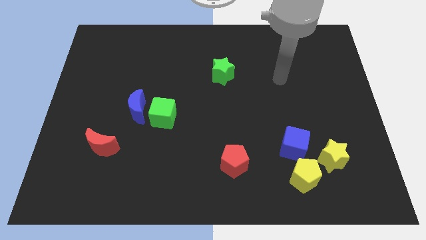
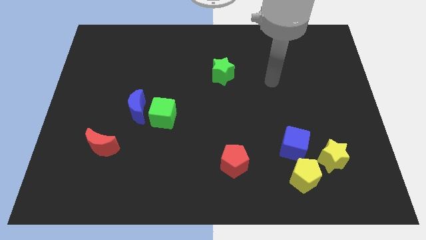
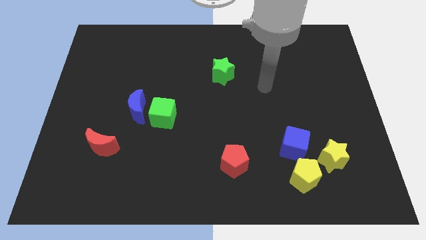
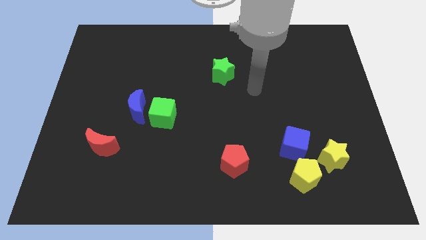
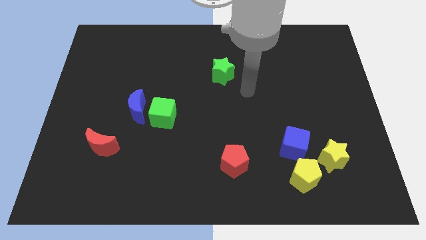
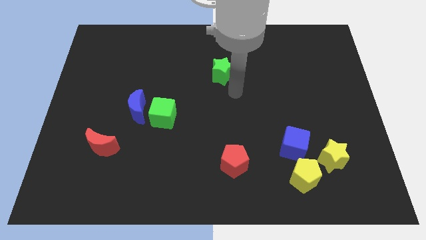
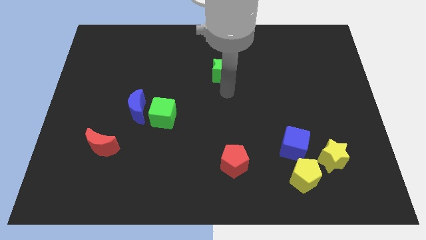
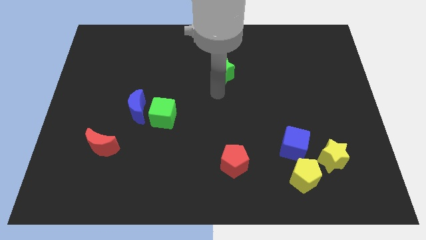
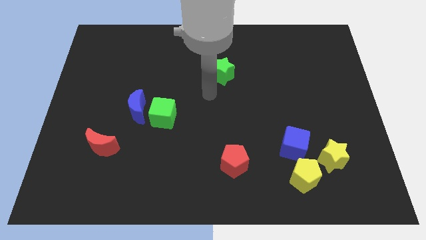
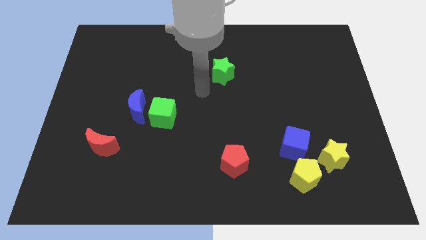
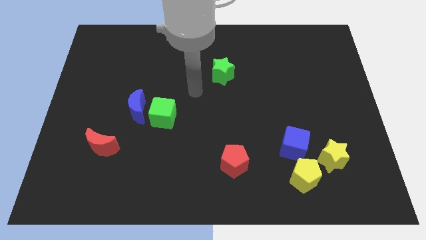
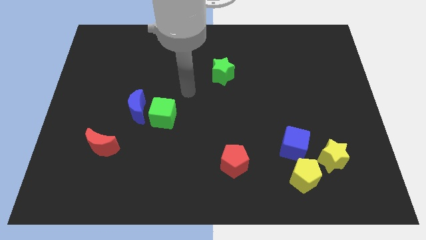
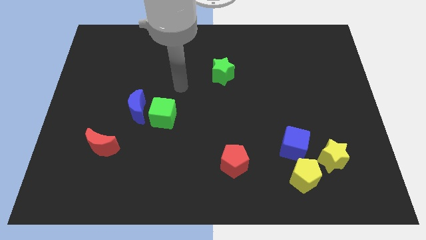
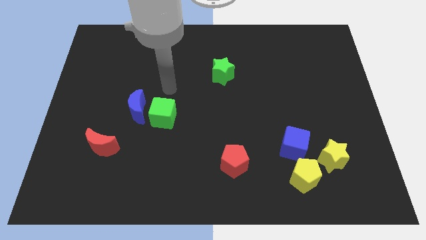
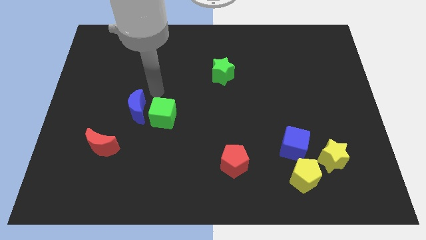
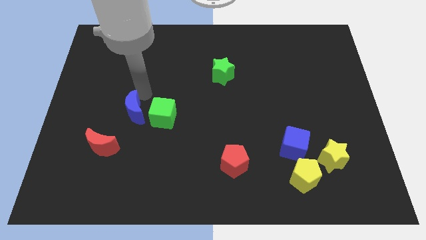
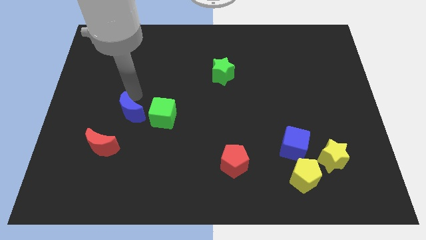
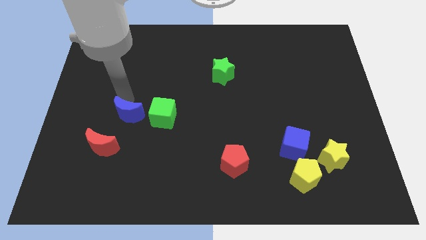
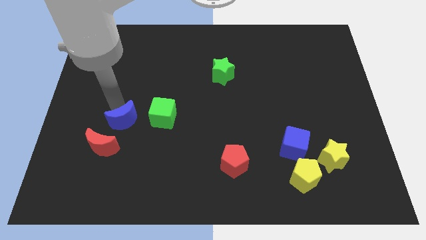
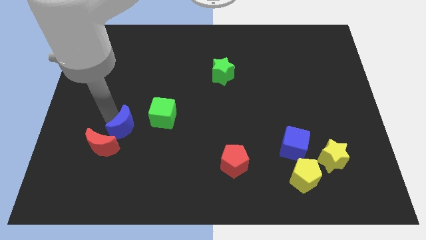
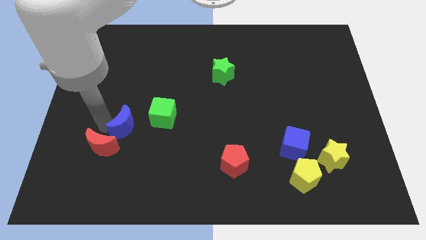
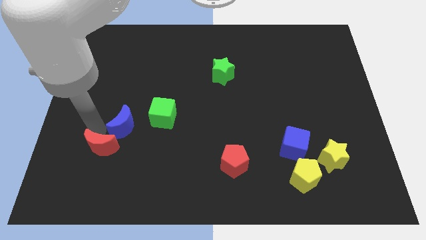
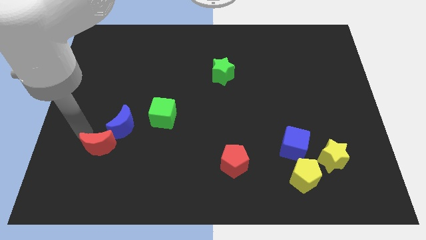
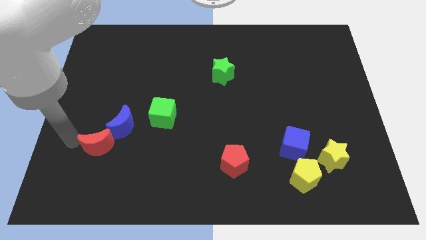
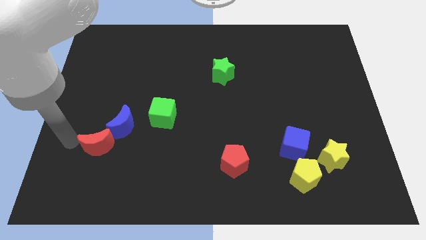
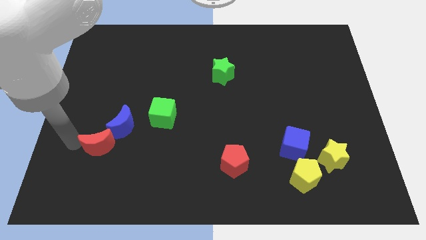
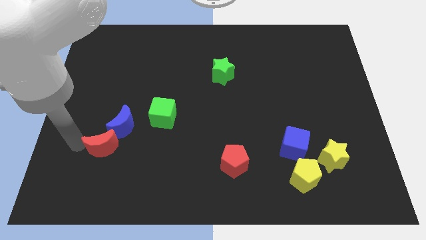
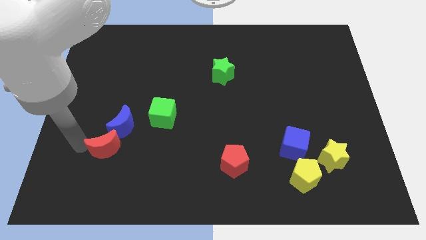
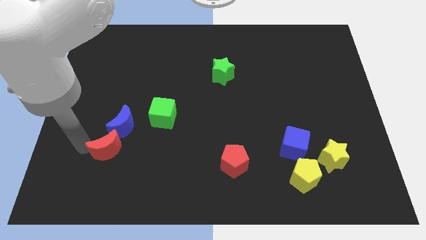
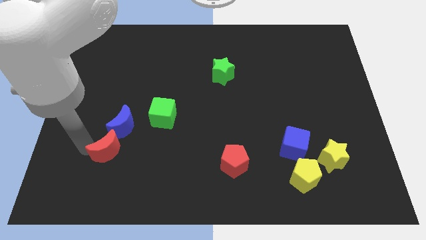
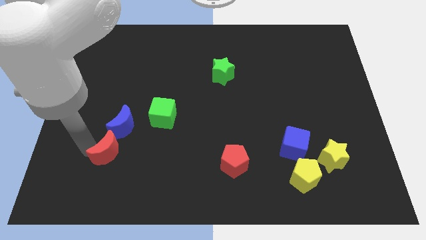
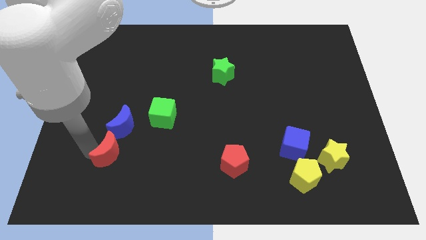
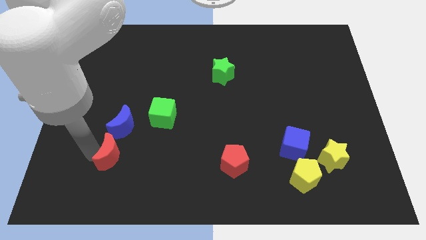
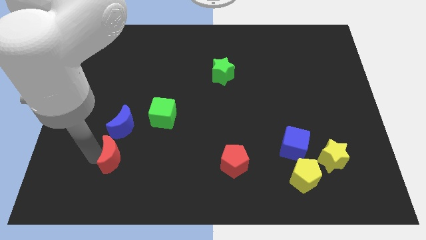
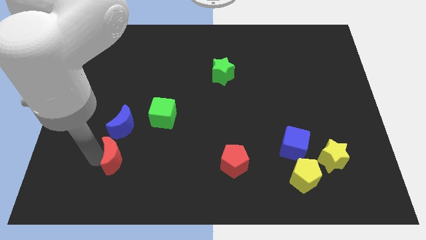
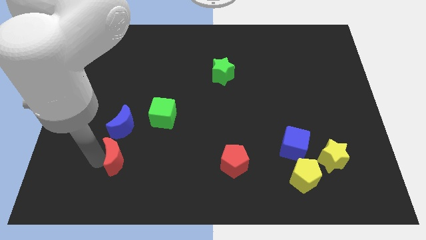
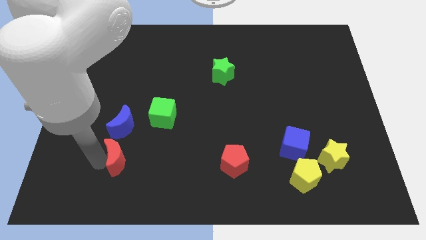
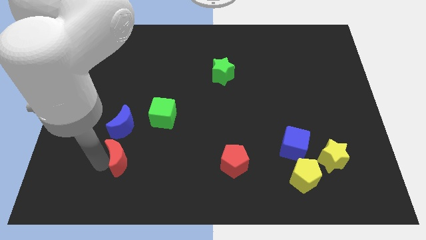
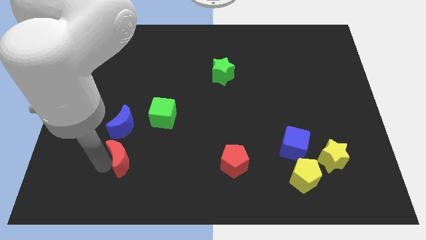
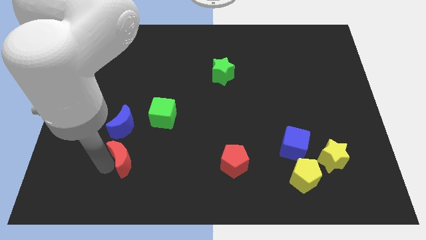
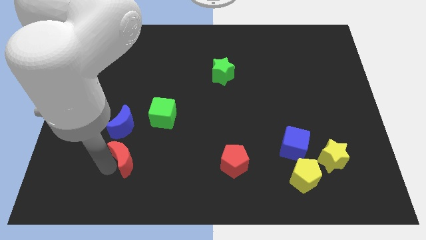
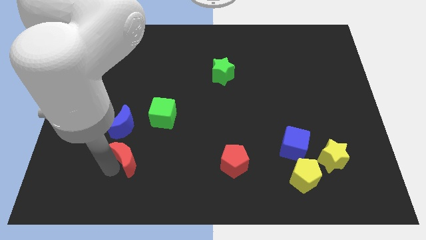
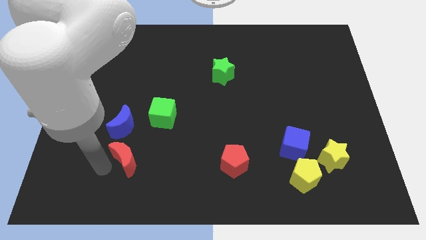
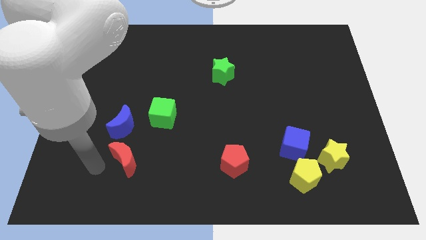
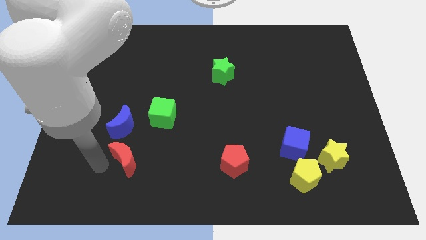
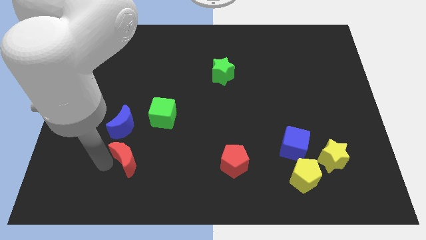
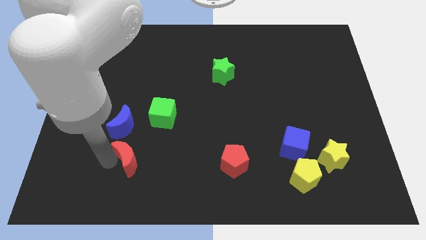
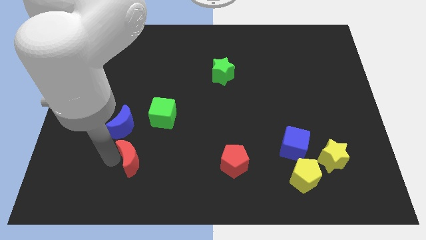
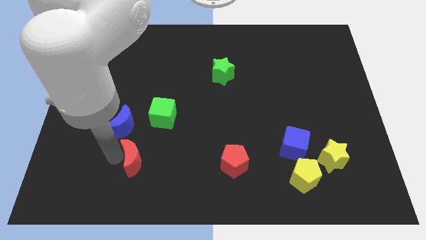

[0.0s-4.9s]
slightly slide the red moon right

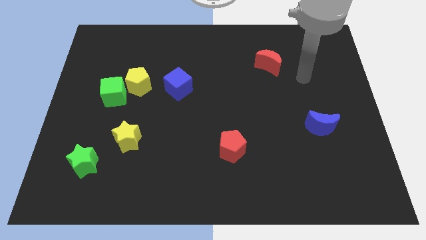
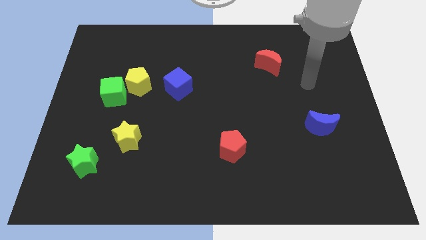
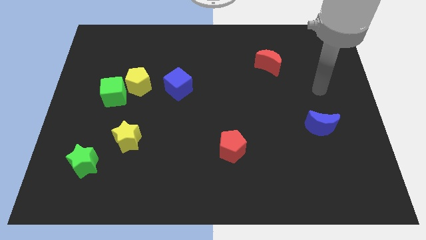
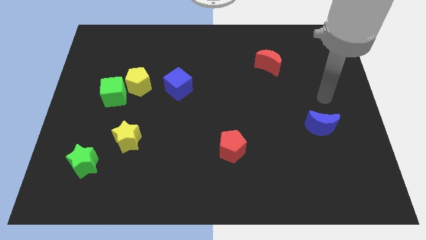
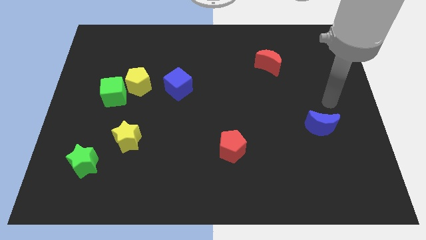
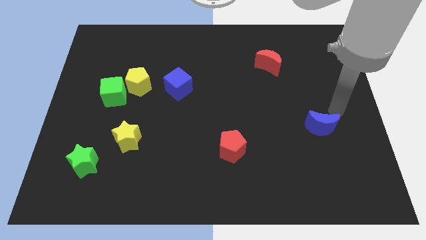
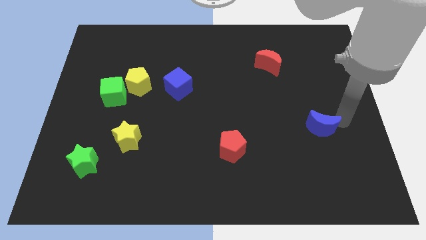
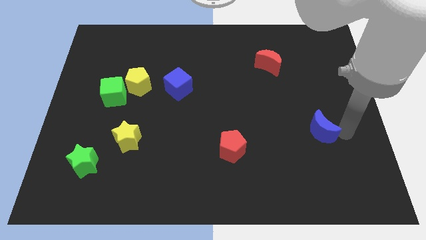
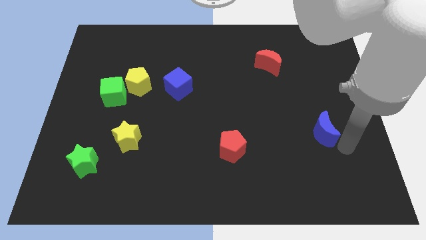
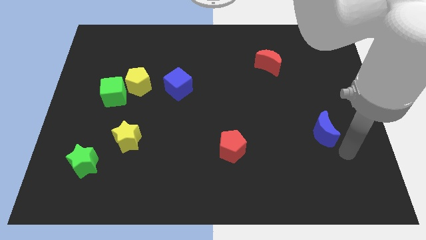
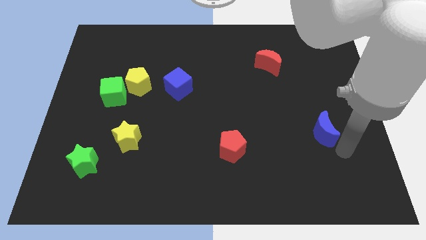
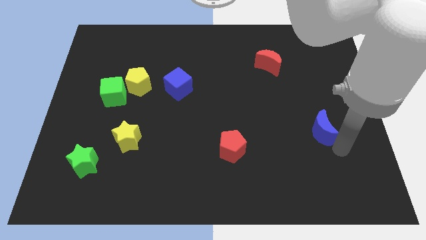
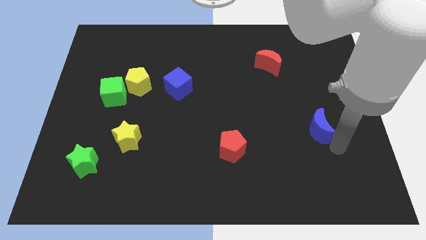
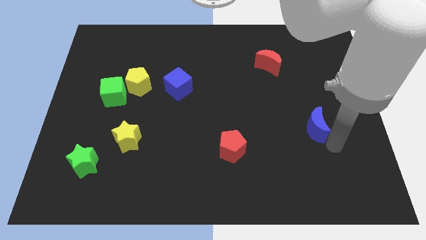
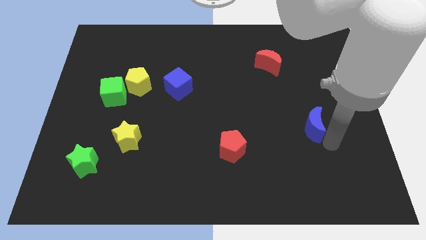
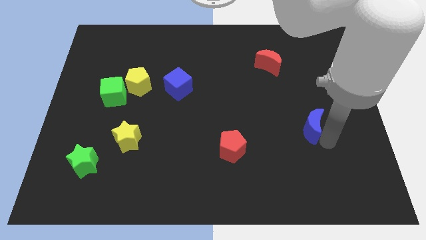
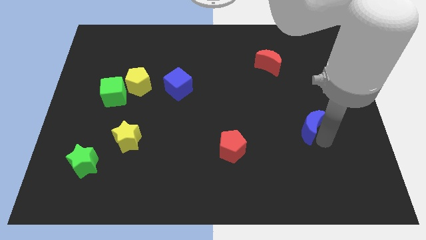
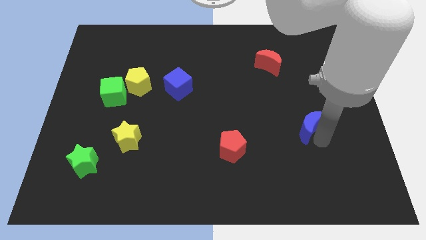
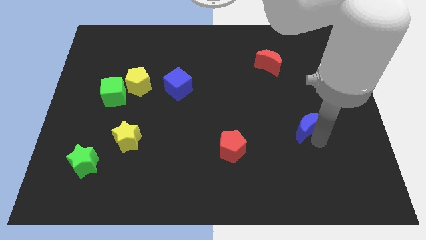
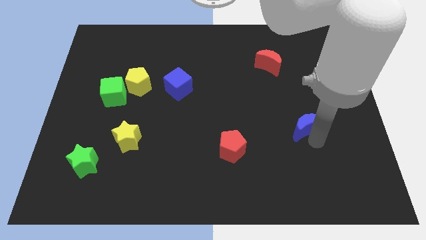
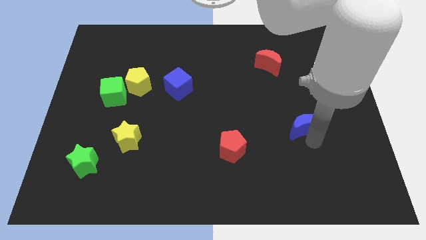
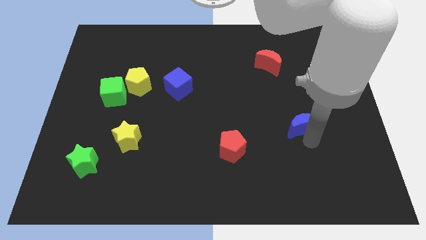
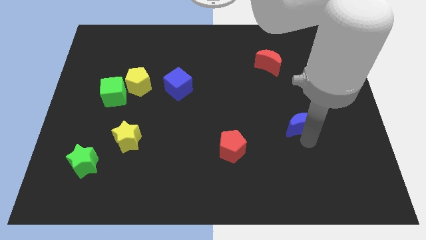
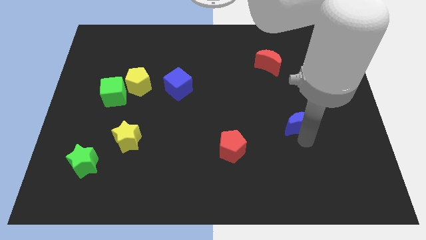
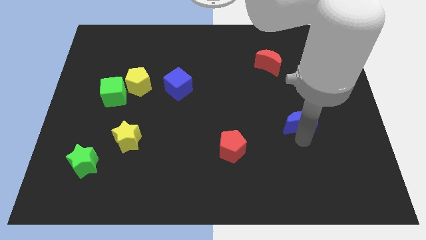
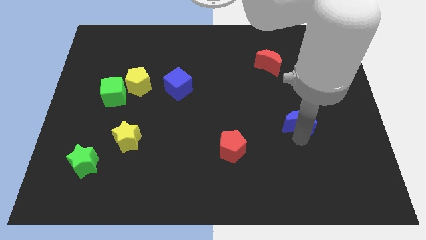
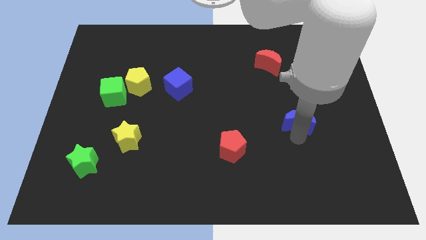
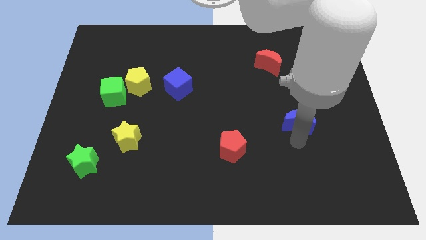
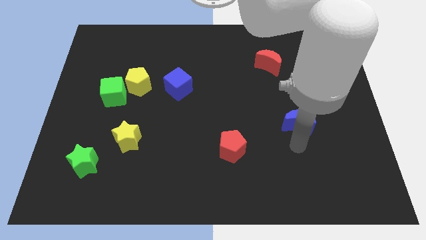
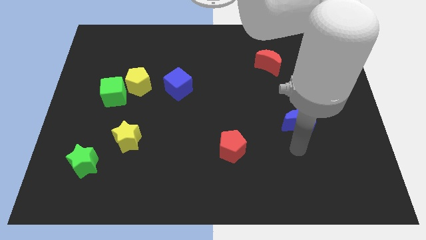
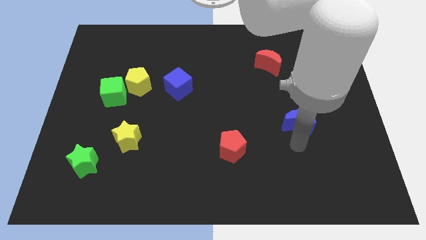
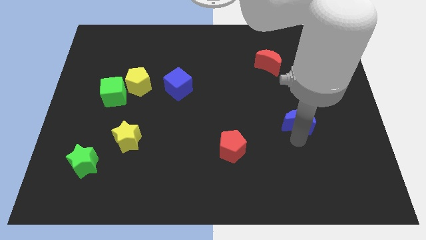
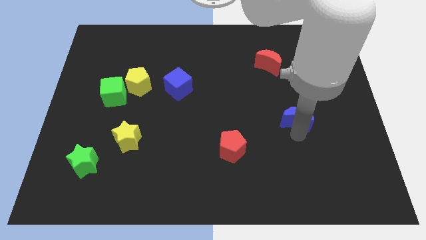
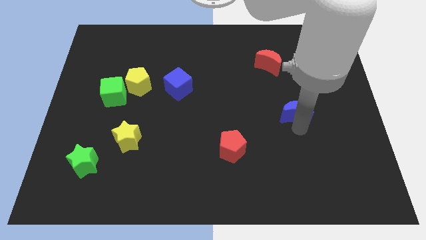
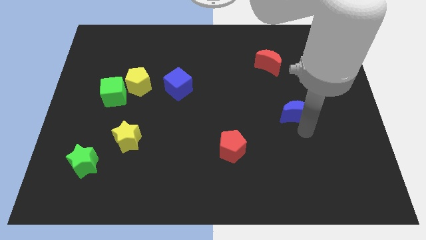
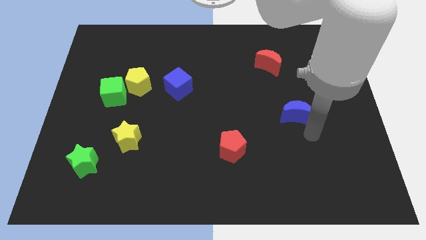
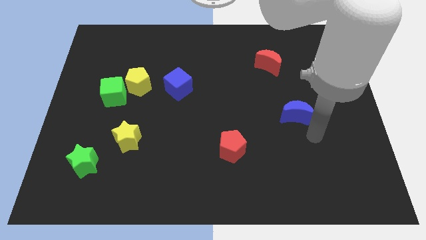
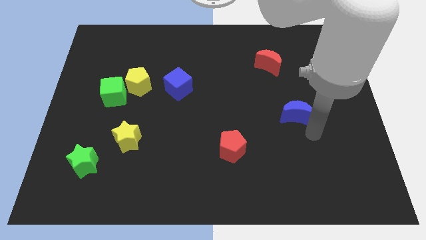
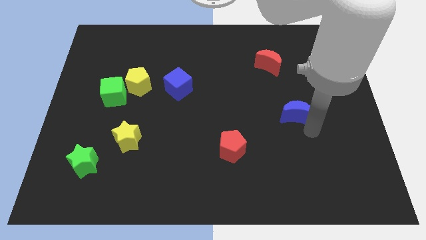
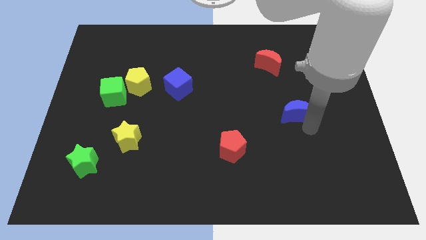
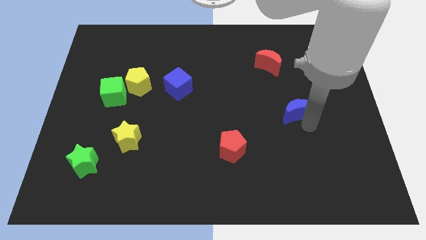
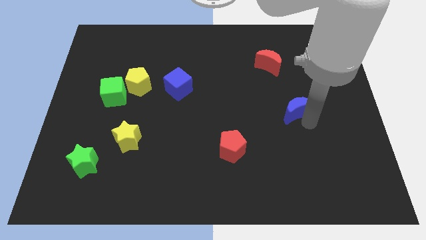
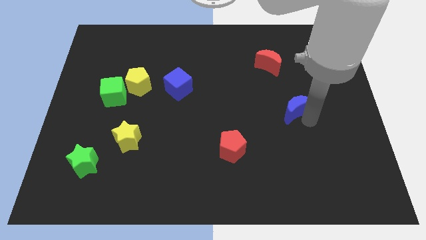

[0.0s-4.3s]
slide the blue moon diagonally up and left somewhat
